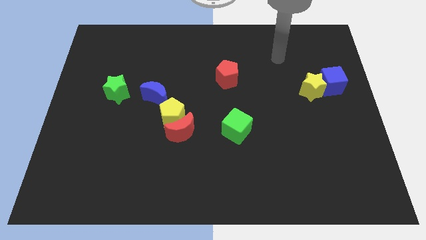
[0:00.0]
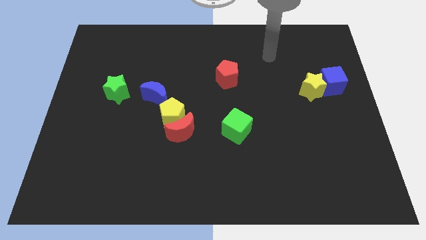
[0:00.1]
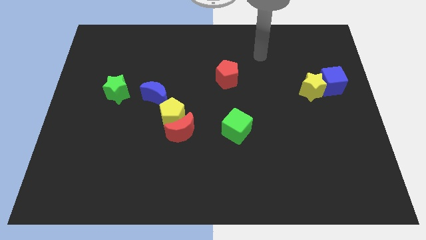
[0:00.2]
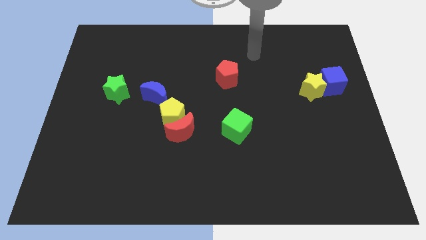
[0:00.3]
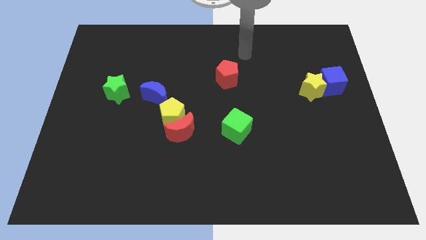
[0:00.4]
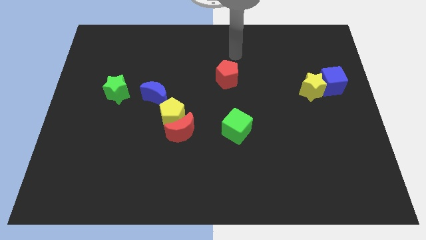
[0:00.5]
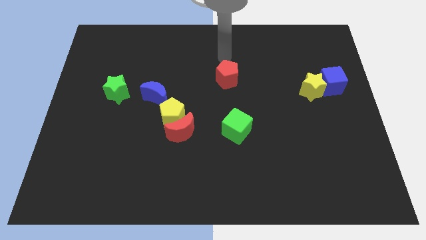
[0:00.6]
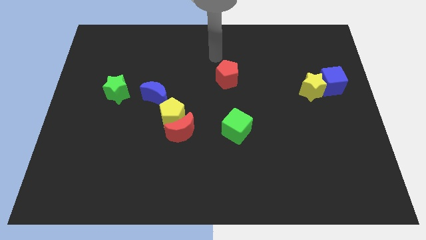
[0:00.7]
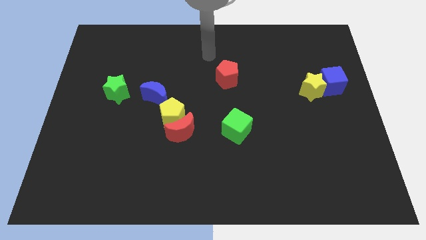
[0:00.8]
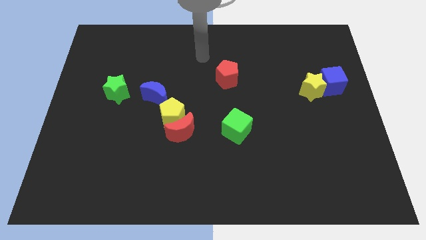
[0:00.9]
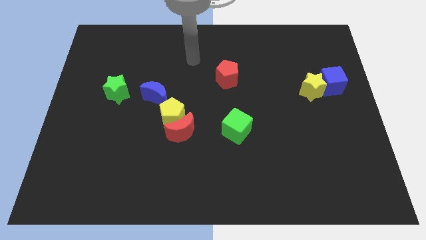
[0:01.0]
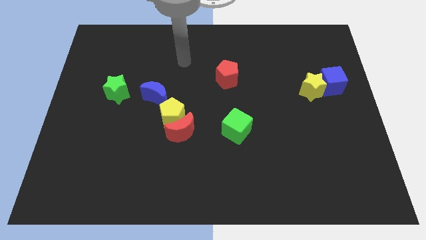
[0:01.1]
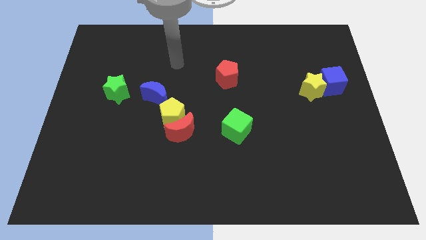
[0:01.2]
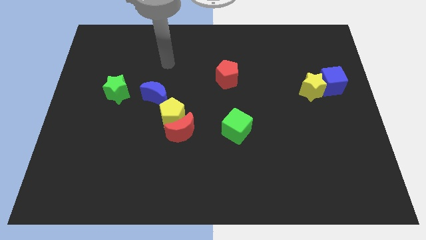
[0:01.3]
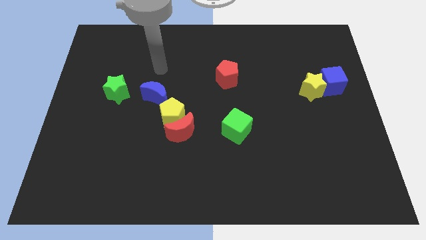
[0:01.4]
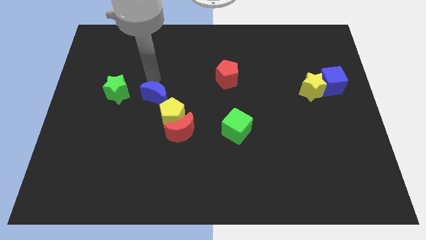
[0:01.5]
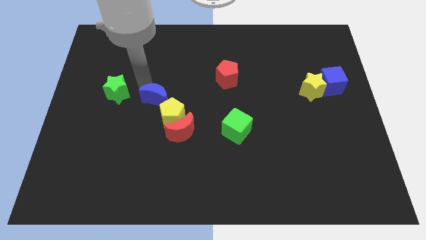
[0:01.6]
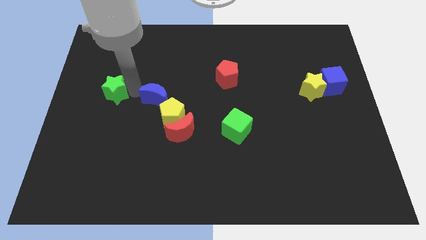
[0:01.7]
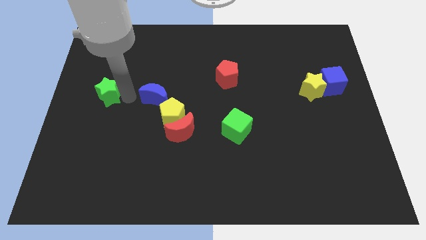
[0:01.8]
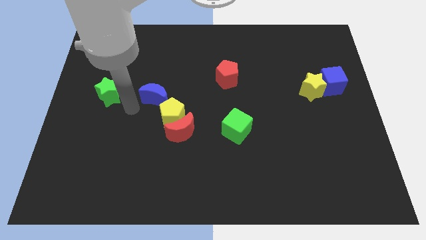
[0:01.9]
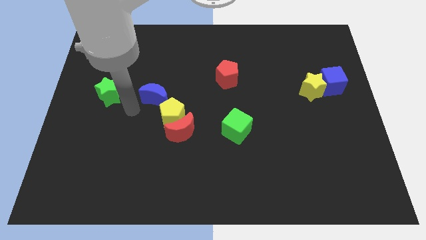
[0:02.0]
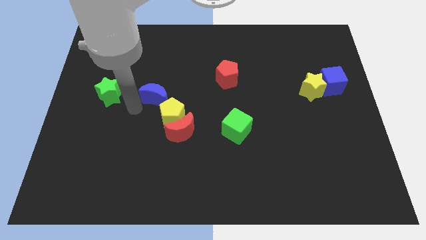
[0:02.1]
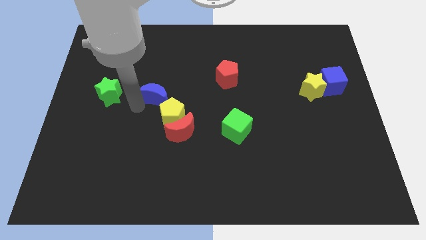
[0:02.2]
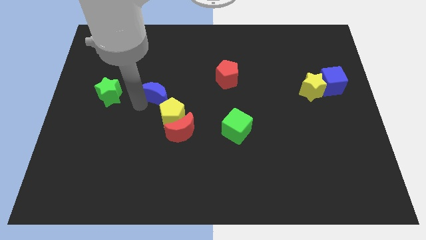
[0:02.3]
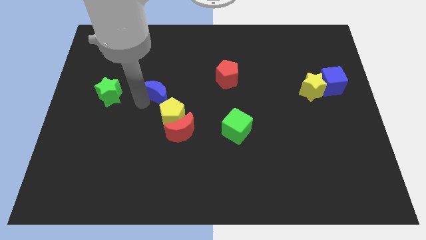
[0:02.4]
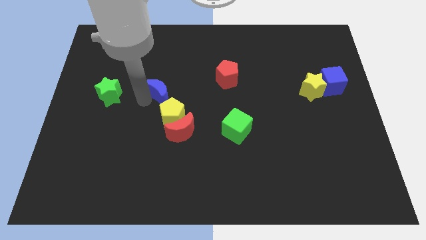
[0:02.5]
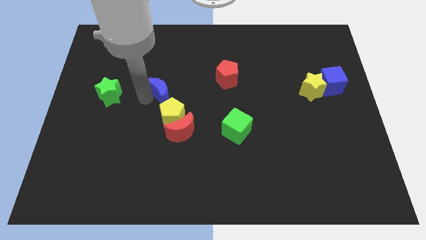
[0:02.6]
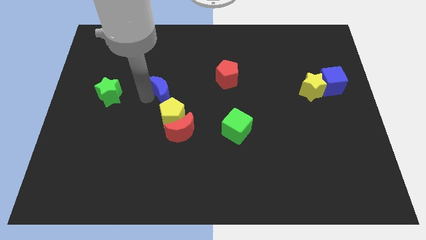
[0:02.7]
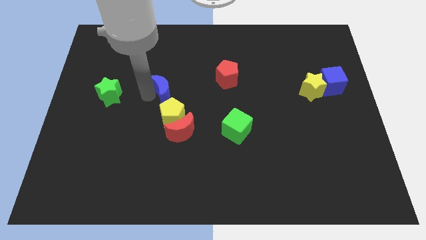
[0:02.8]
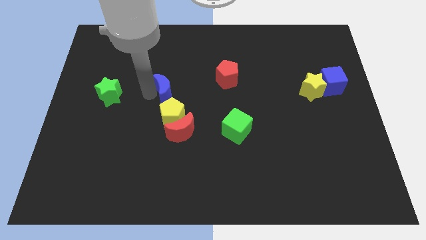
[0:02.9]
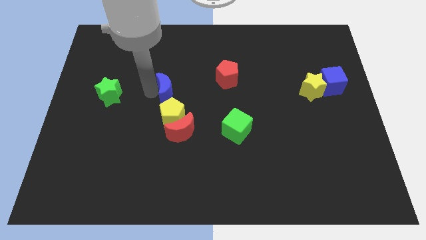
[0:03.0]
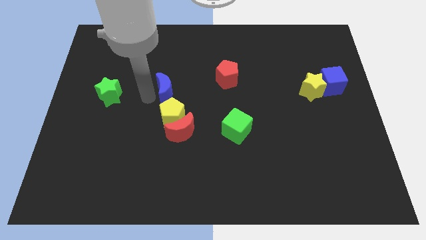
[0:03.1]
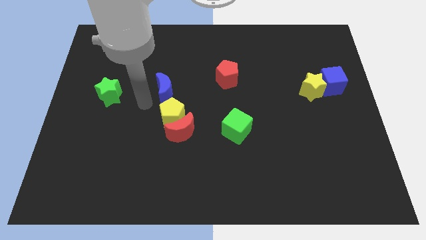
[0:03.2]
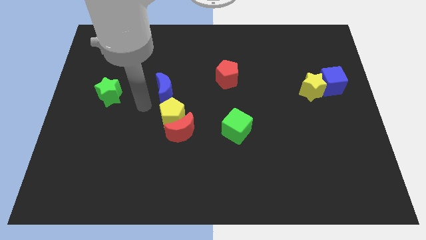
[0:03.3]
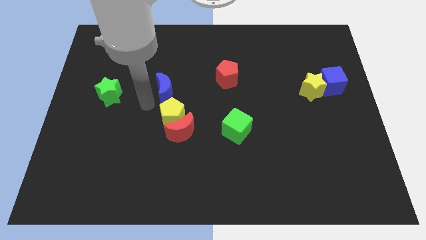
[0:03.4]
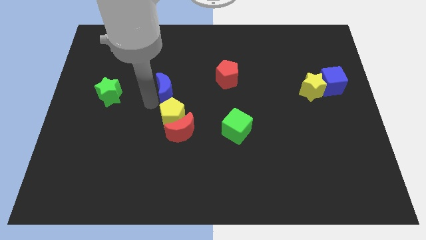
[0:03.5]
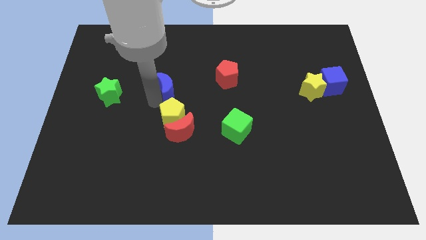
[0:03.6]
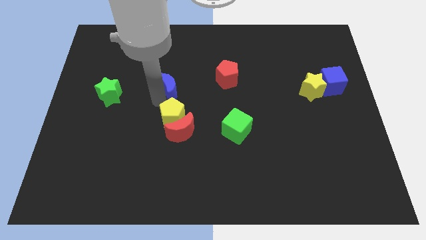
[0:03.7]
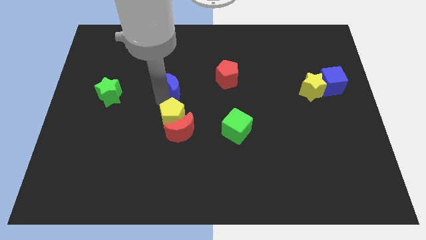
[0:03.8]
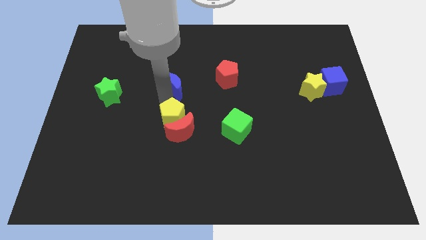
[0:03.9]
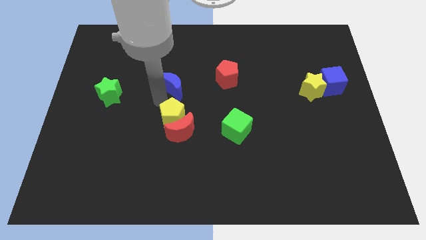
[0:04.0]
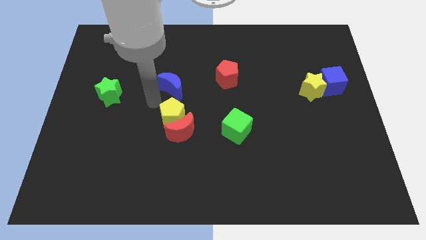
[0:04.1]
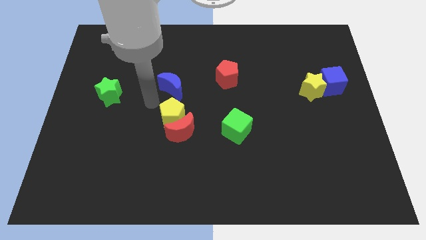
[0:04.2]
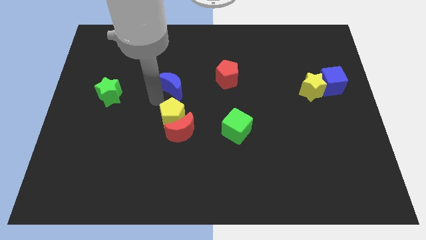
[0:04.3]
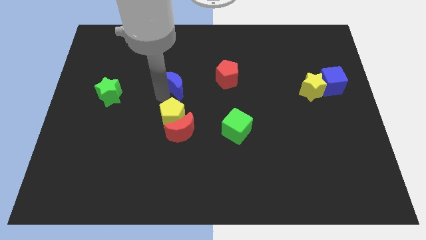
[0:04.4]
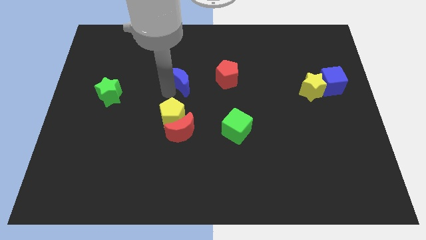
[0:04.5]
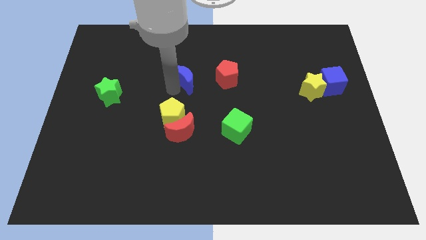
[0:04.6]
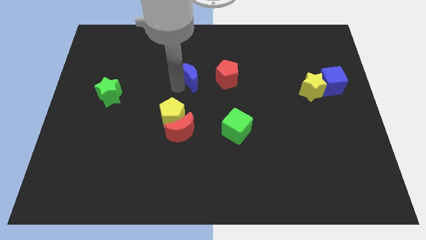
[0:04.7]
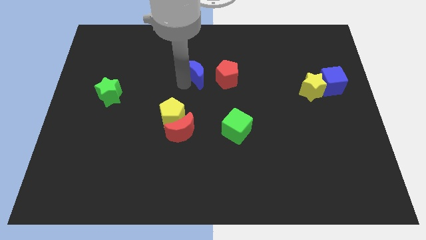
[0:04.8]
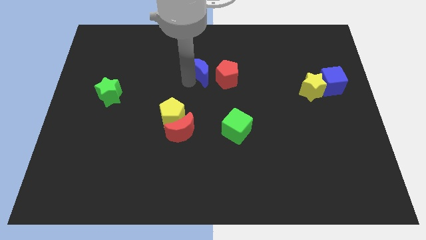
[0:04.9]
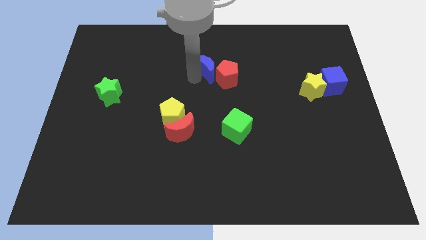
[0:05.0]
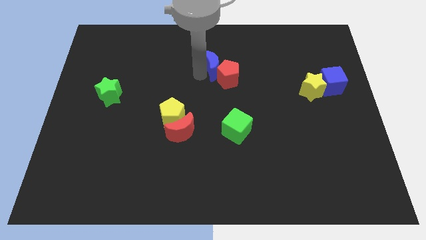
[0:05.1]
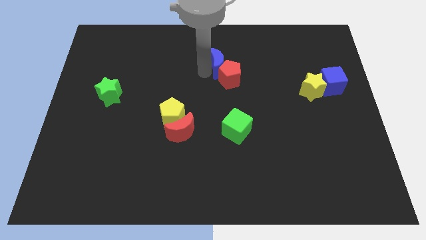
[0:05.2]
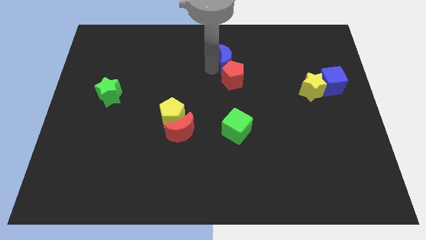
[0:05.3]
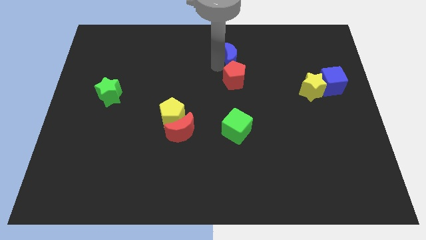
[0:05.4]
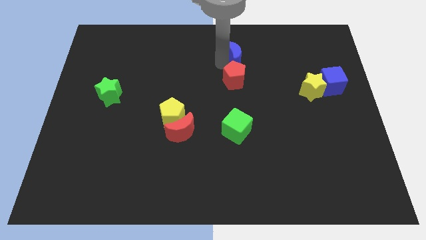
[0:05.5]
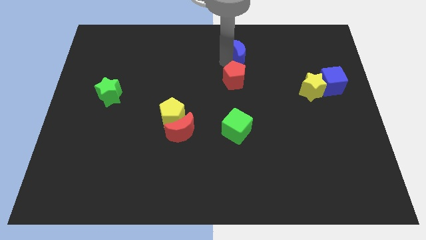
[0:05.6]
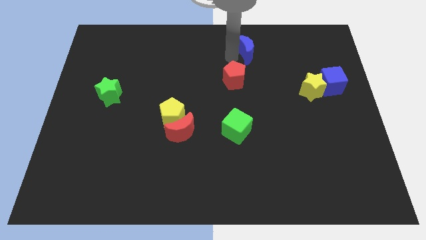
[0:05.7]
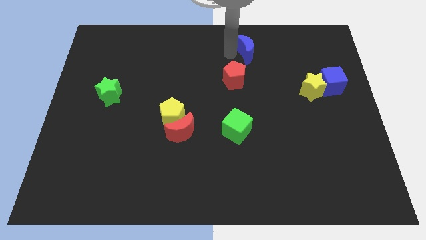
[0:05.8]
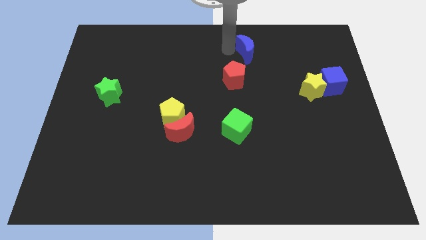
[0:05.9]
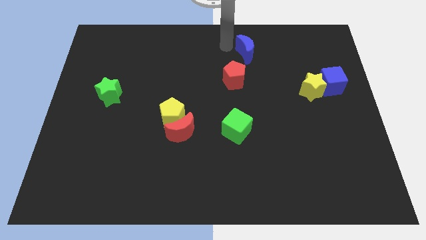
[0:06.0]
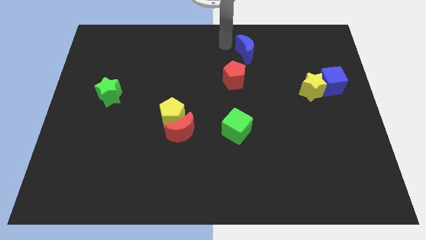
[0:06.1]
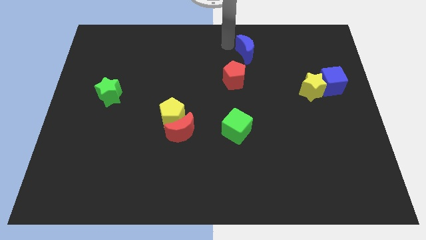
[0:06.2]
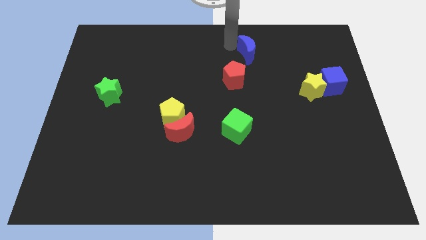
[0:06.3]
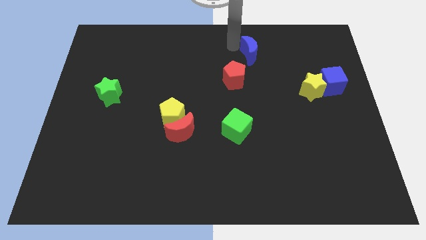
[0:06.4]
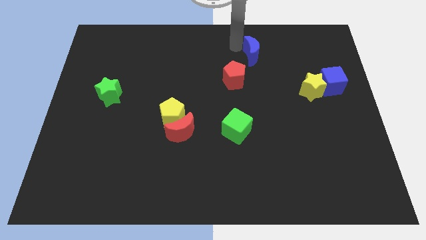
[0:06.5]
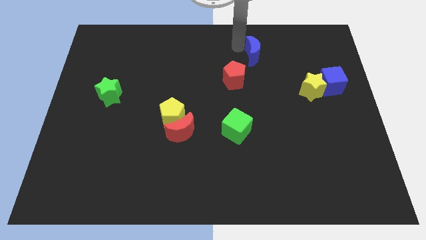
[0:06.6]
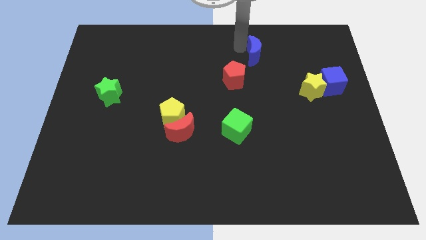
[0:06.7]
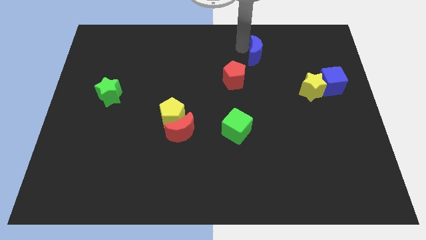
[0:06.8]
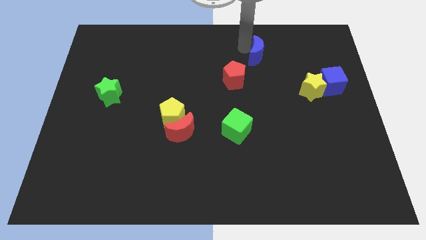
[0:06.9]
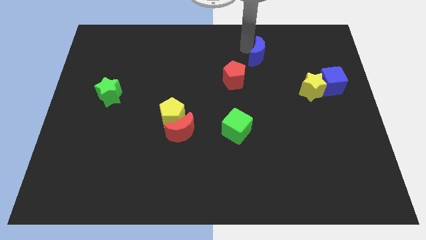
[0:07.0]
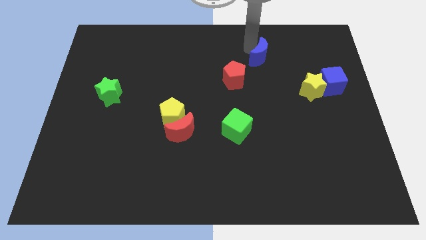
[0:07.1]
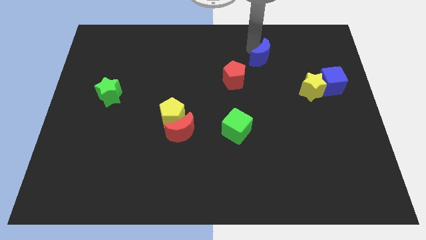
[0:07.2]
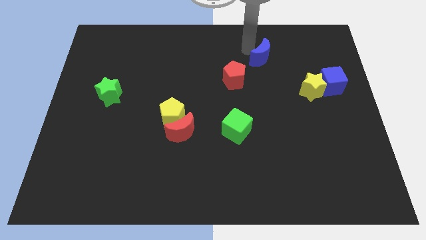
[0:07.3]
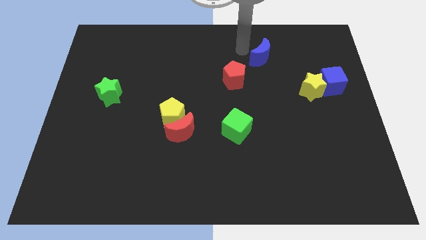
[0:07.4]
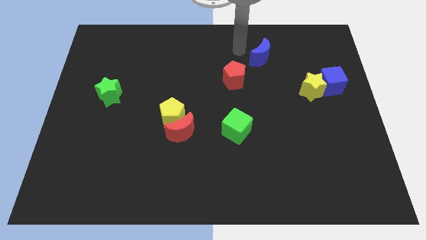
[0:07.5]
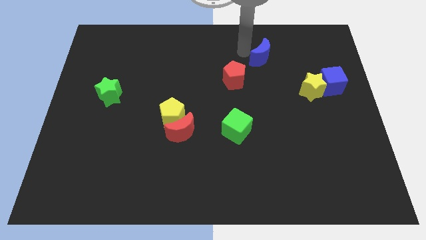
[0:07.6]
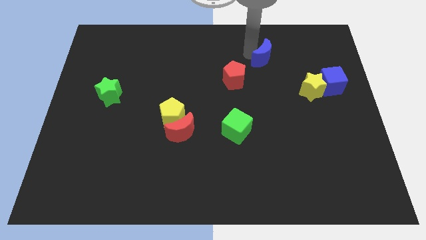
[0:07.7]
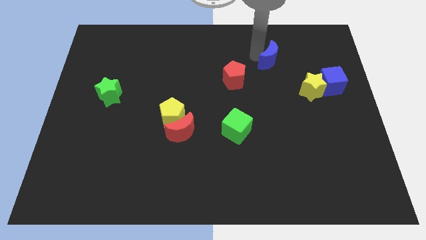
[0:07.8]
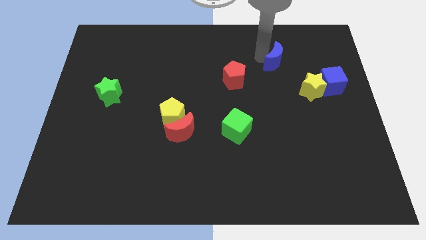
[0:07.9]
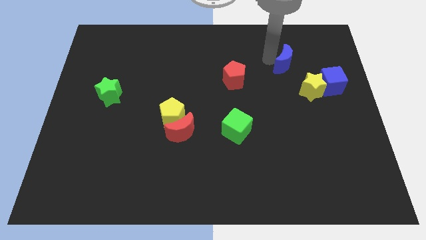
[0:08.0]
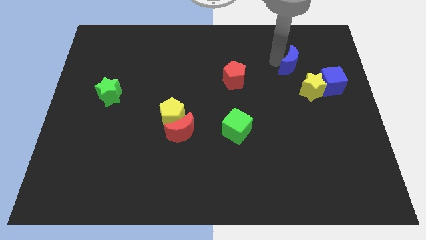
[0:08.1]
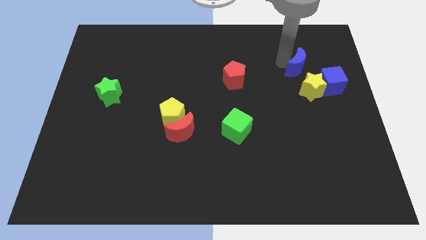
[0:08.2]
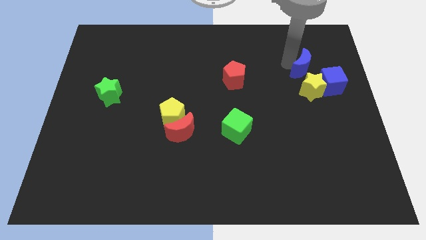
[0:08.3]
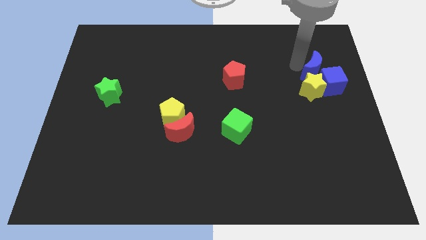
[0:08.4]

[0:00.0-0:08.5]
put the blue moon next to the blue cube
